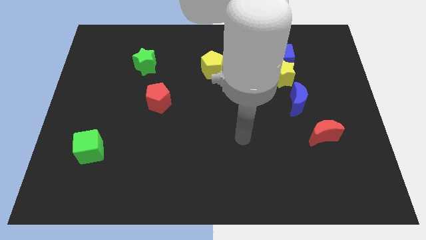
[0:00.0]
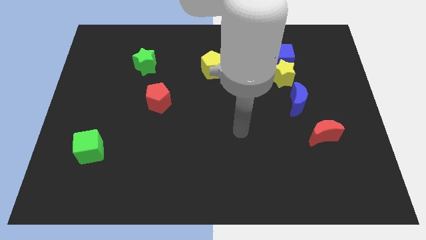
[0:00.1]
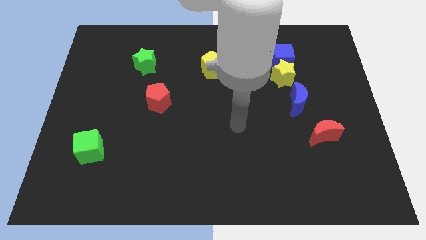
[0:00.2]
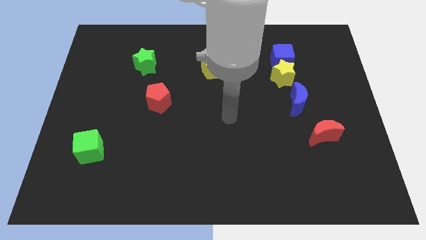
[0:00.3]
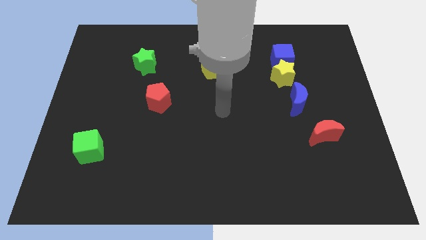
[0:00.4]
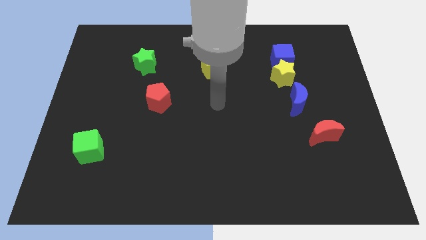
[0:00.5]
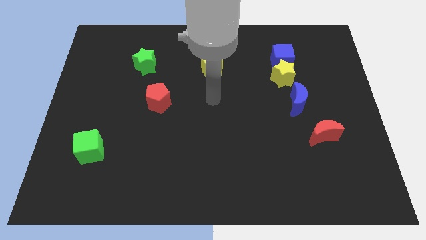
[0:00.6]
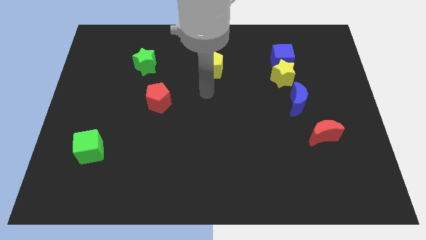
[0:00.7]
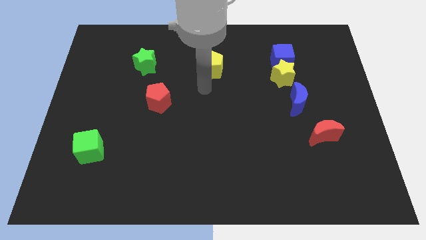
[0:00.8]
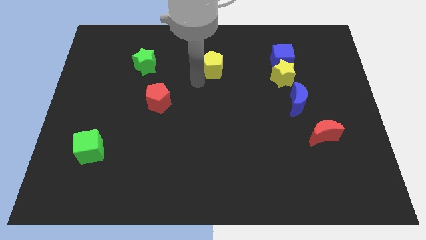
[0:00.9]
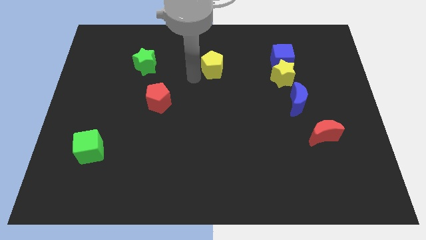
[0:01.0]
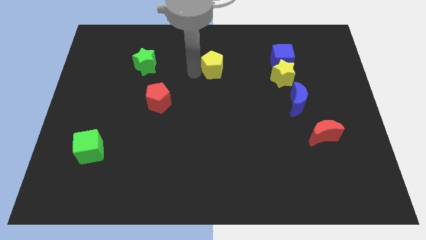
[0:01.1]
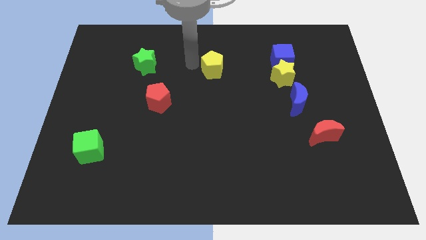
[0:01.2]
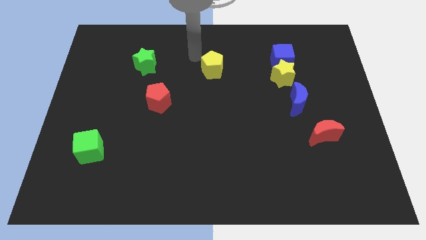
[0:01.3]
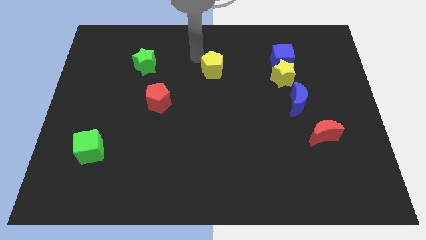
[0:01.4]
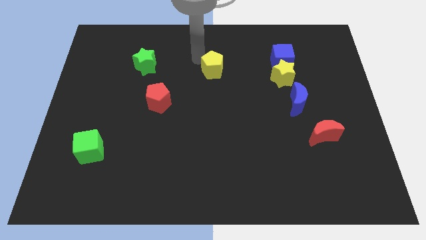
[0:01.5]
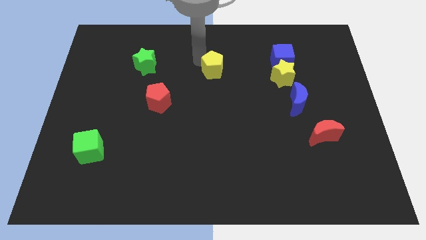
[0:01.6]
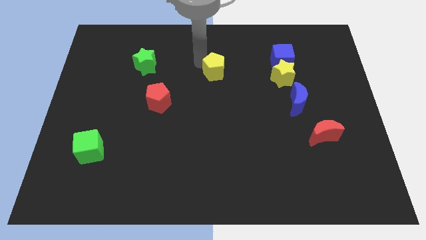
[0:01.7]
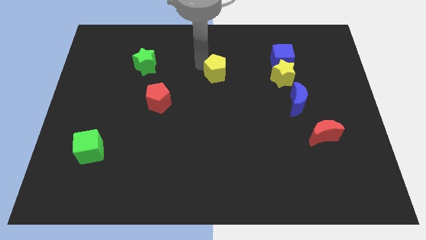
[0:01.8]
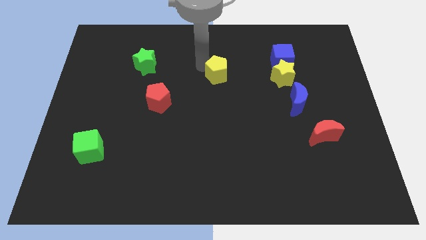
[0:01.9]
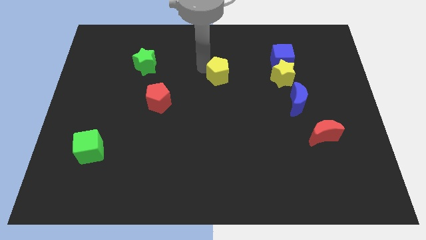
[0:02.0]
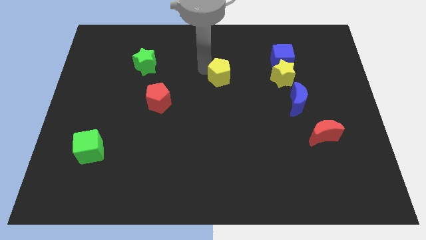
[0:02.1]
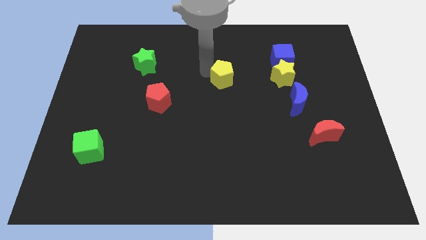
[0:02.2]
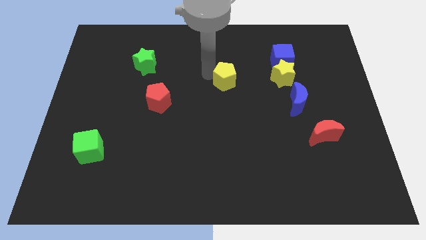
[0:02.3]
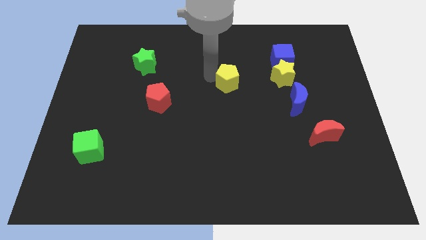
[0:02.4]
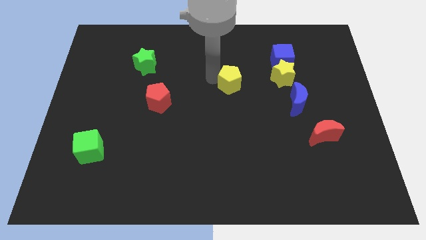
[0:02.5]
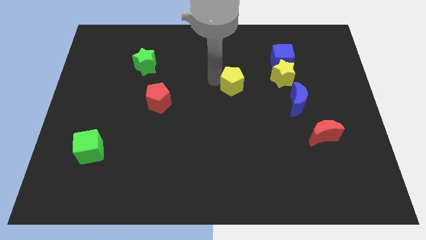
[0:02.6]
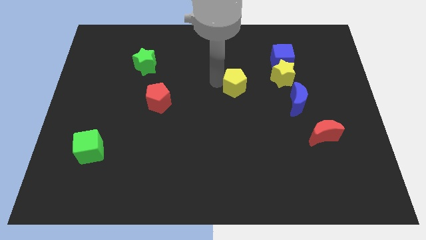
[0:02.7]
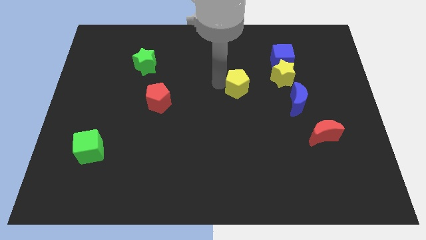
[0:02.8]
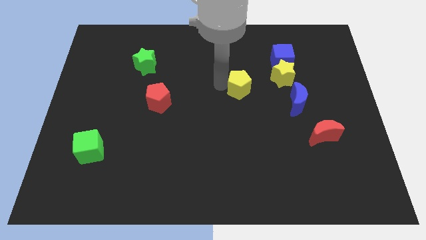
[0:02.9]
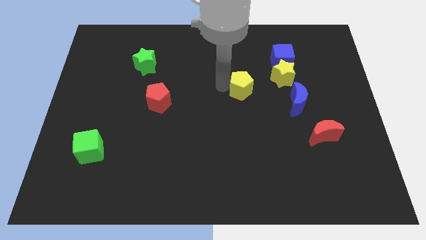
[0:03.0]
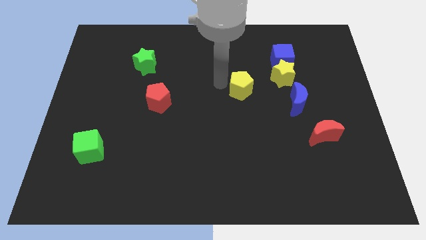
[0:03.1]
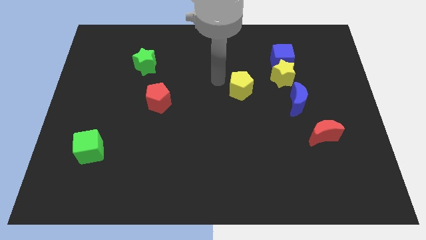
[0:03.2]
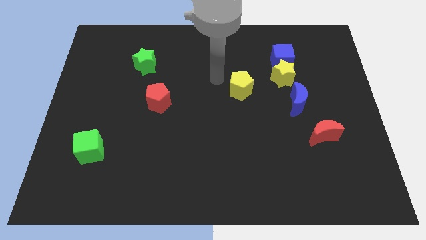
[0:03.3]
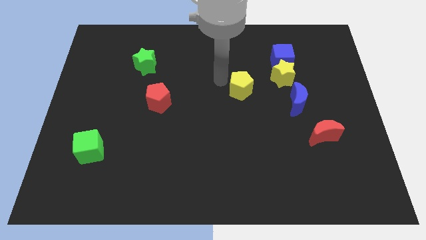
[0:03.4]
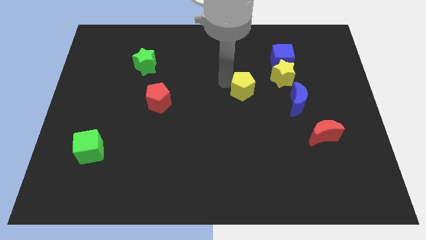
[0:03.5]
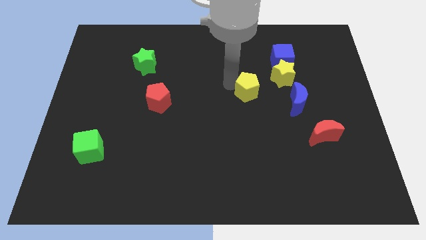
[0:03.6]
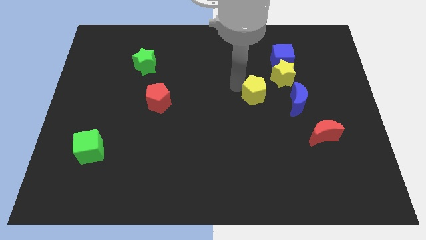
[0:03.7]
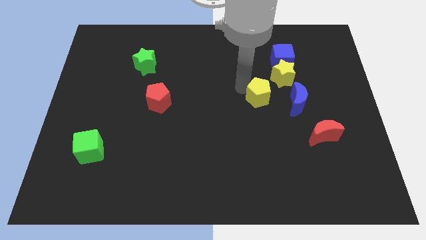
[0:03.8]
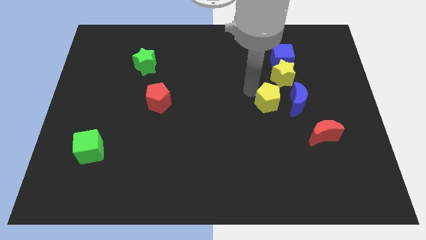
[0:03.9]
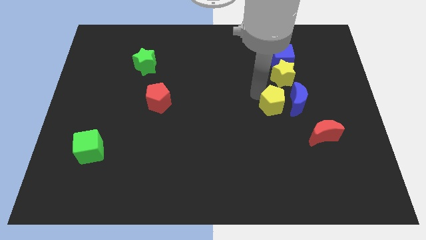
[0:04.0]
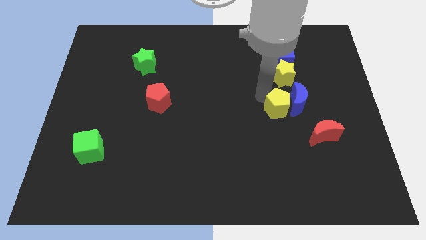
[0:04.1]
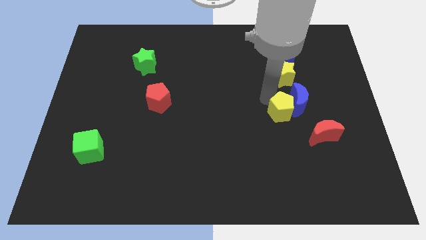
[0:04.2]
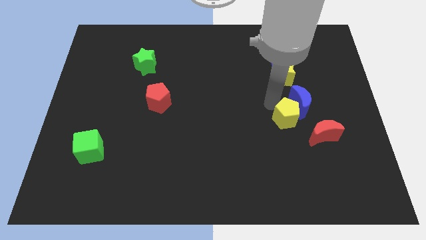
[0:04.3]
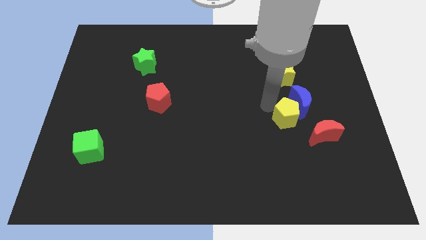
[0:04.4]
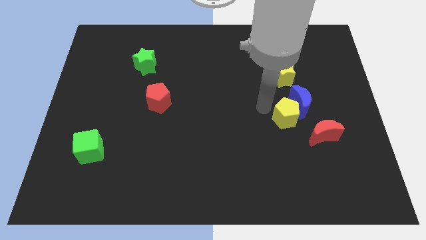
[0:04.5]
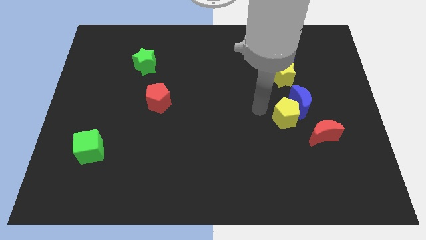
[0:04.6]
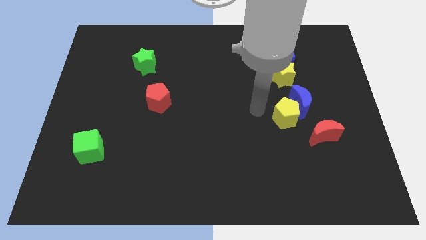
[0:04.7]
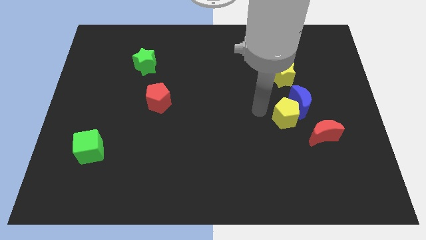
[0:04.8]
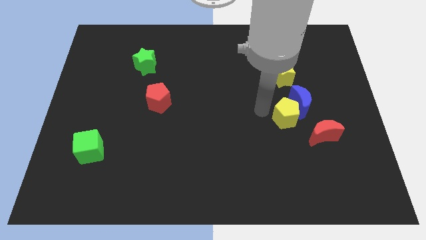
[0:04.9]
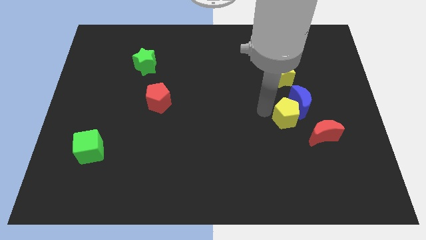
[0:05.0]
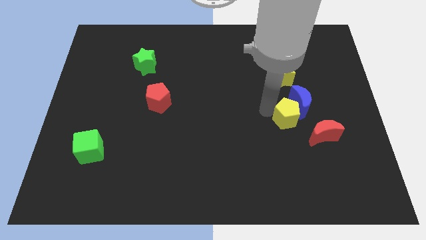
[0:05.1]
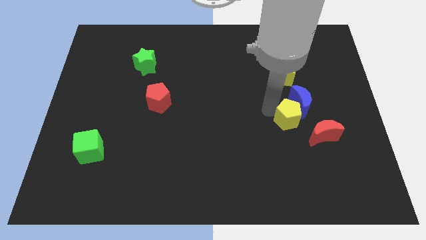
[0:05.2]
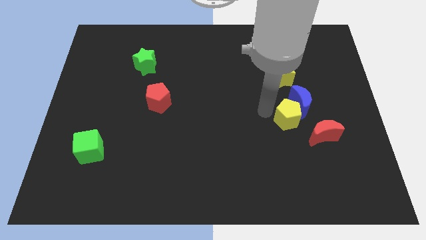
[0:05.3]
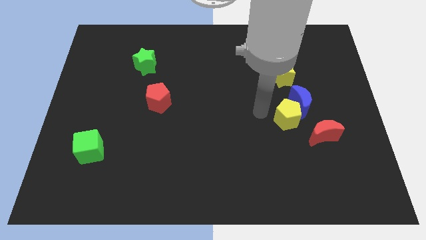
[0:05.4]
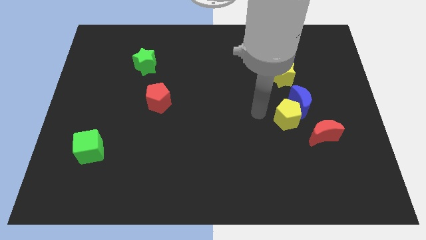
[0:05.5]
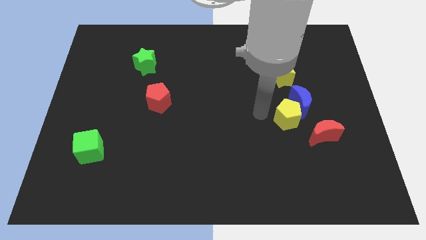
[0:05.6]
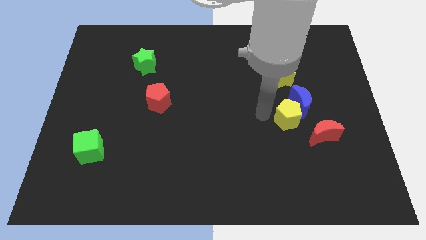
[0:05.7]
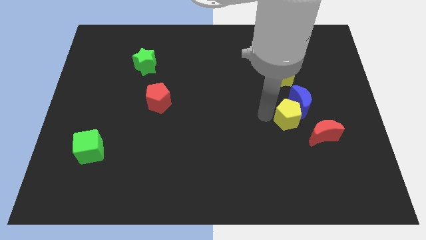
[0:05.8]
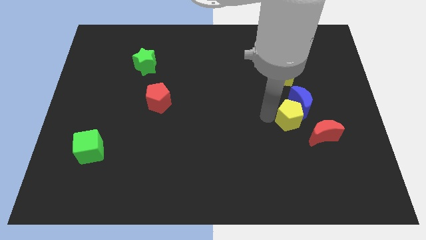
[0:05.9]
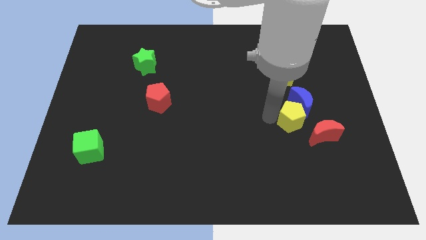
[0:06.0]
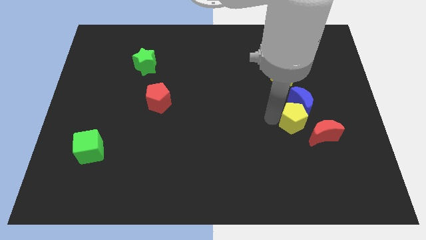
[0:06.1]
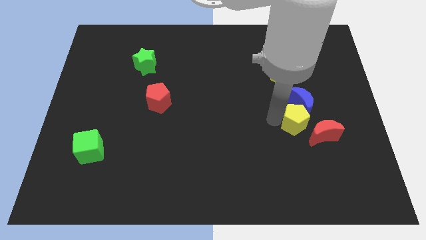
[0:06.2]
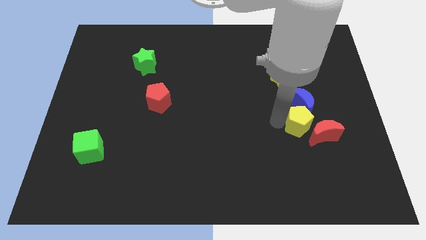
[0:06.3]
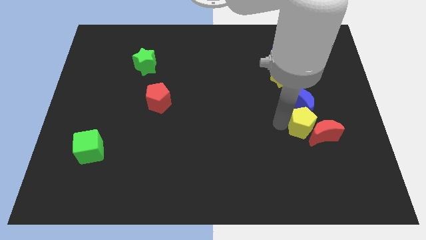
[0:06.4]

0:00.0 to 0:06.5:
slide the yellow pentagon to the bottom right side of the blue moon
